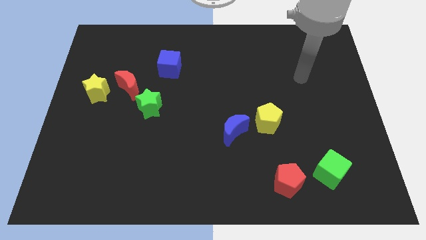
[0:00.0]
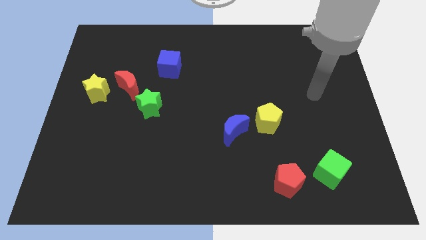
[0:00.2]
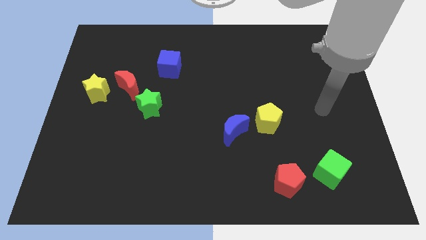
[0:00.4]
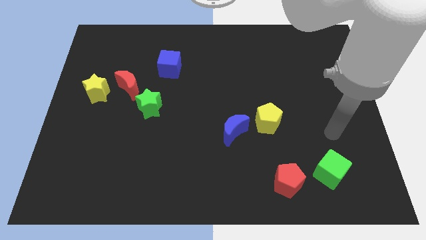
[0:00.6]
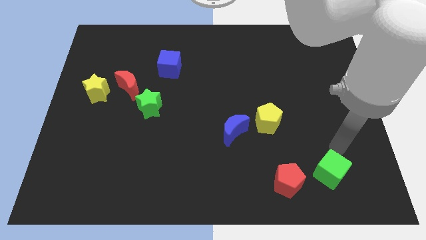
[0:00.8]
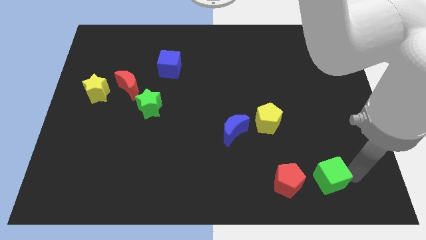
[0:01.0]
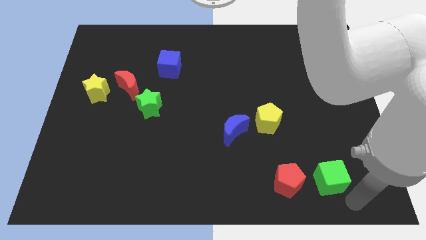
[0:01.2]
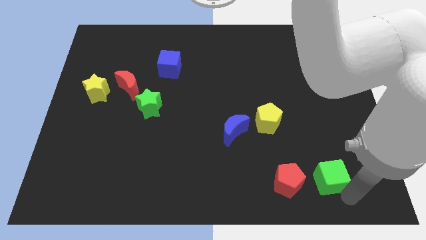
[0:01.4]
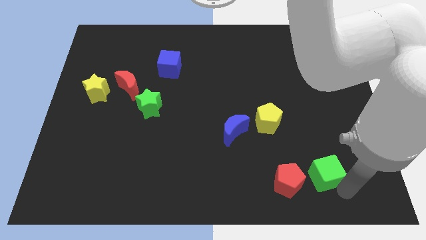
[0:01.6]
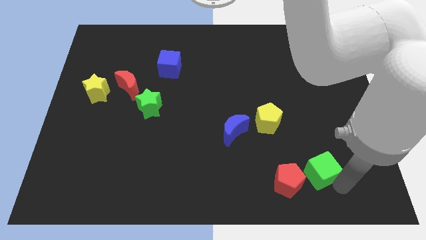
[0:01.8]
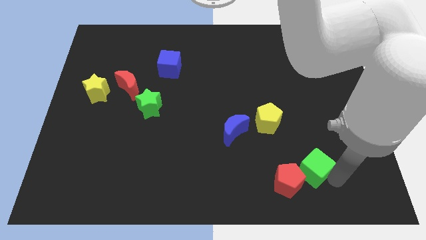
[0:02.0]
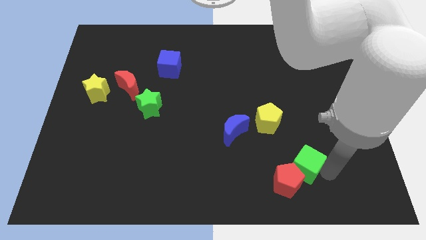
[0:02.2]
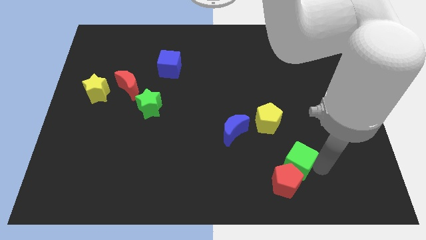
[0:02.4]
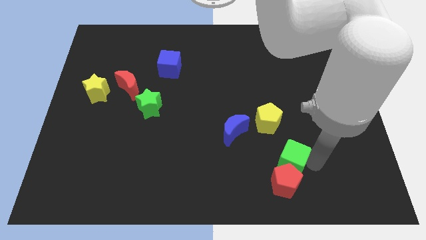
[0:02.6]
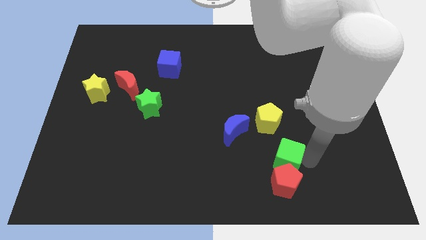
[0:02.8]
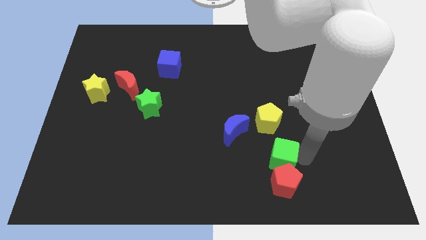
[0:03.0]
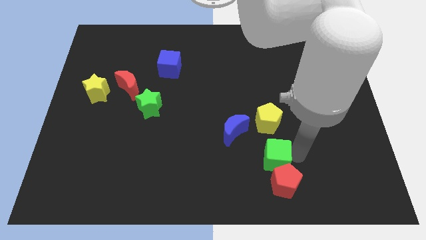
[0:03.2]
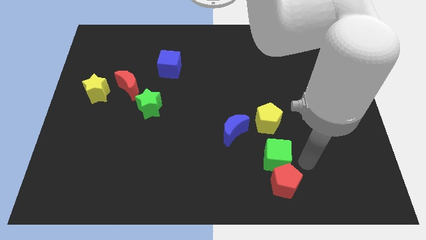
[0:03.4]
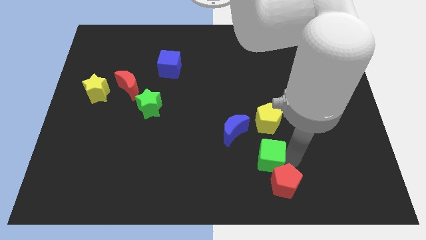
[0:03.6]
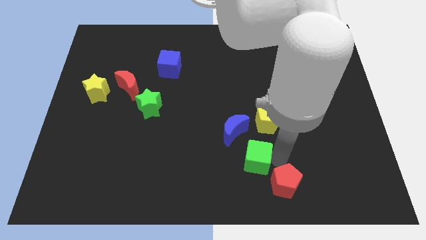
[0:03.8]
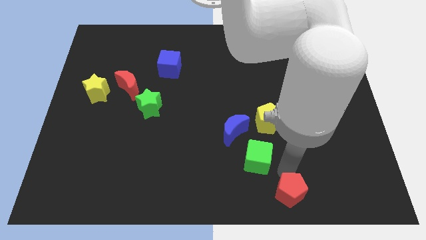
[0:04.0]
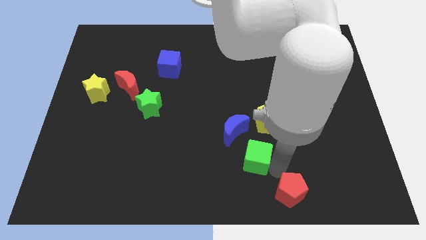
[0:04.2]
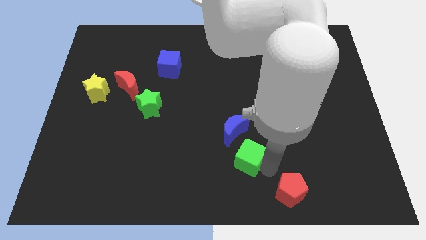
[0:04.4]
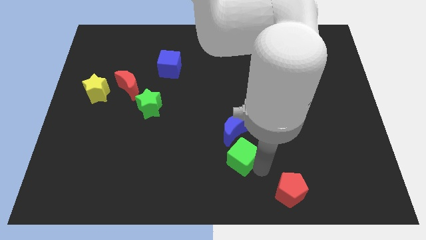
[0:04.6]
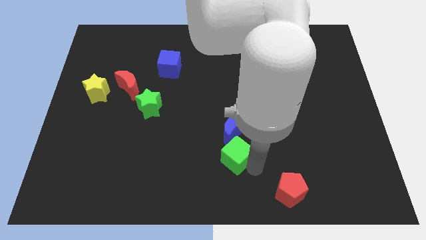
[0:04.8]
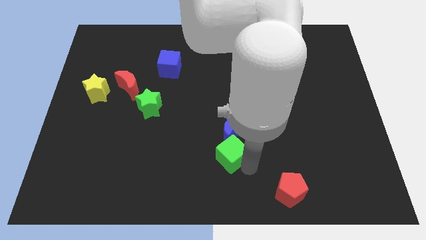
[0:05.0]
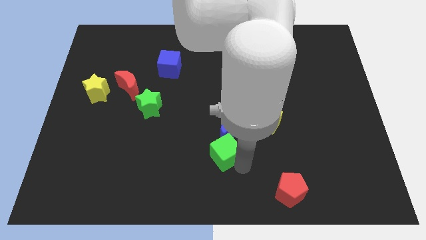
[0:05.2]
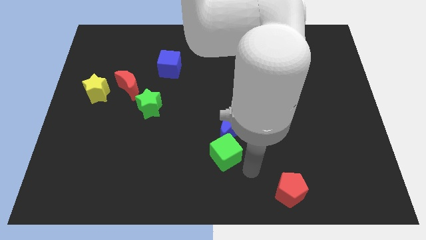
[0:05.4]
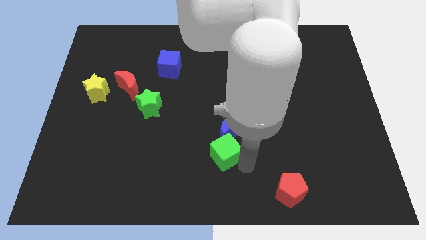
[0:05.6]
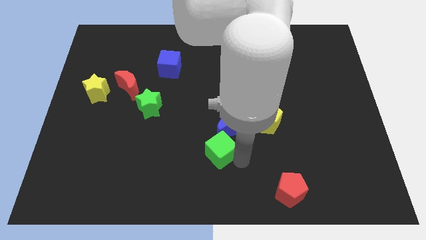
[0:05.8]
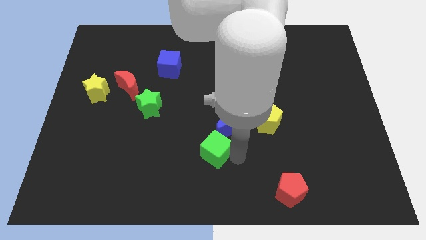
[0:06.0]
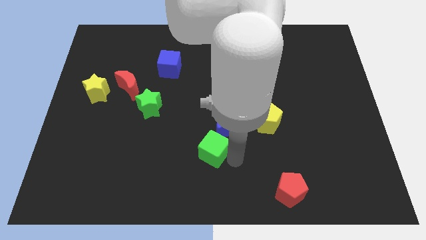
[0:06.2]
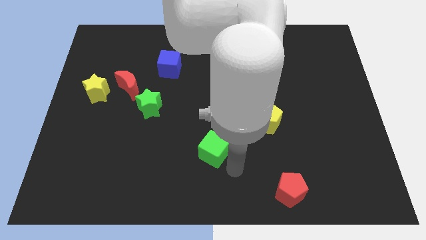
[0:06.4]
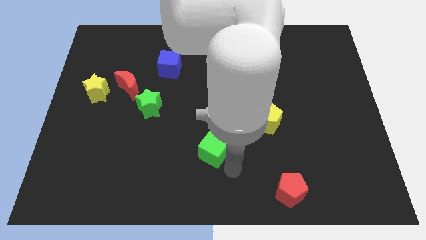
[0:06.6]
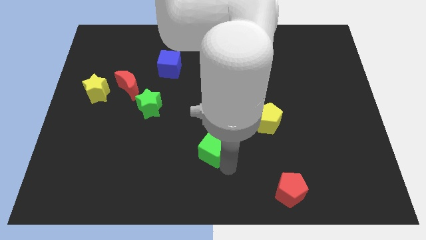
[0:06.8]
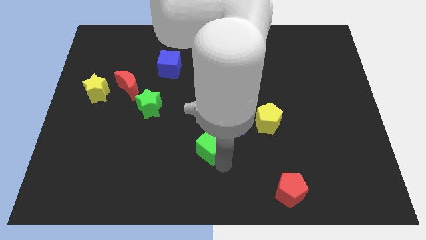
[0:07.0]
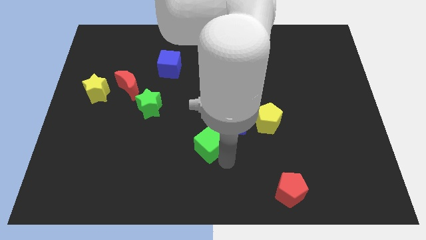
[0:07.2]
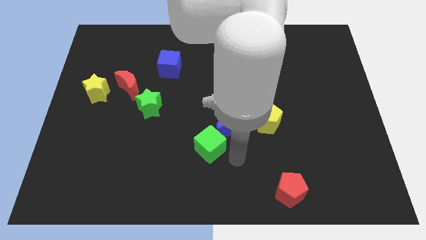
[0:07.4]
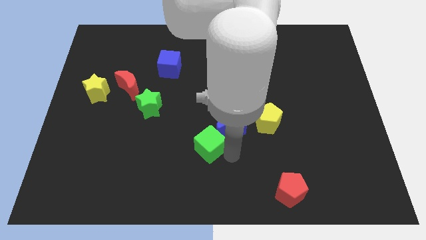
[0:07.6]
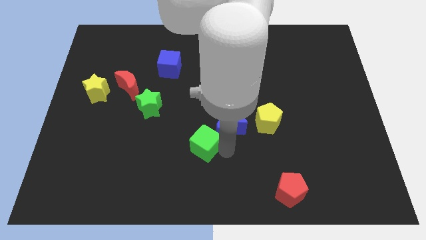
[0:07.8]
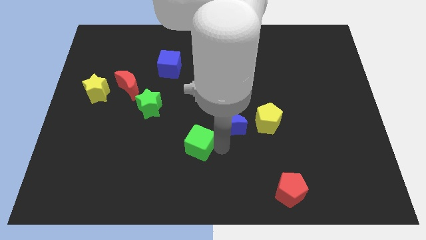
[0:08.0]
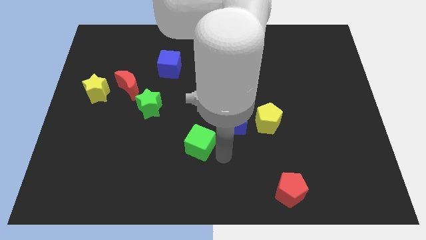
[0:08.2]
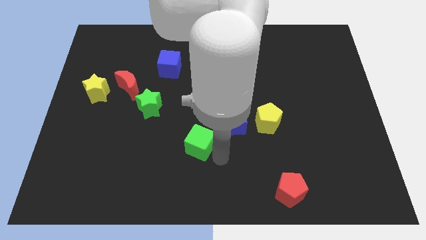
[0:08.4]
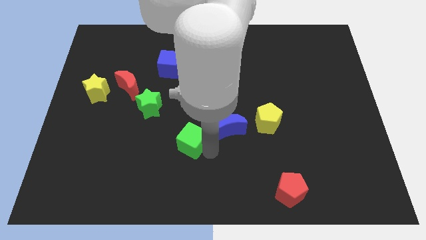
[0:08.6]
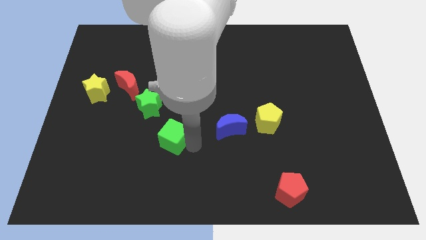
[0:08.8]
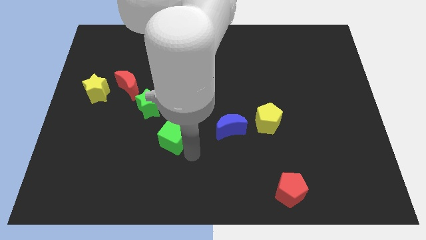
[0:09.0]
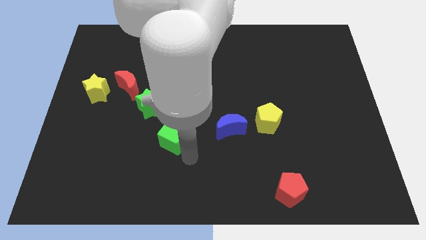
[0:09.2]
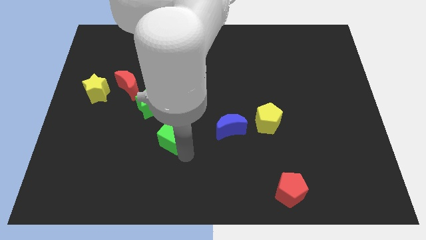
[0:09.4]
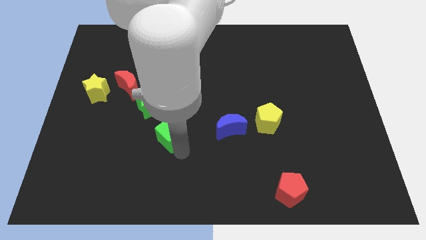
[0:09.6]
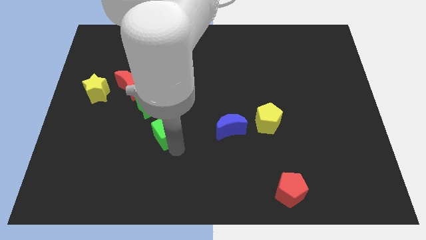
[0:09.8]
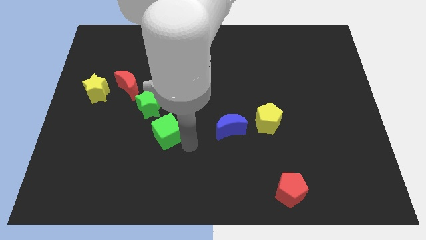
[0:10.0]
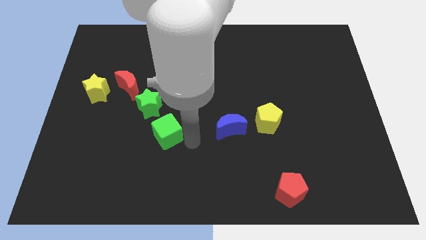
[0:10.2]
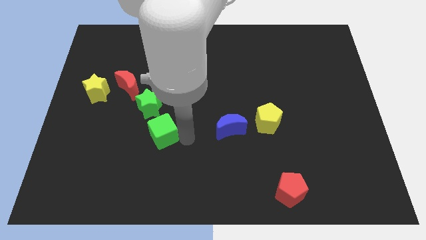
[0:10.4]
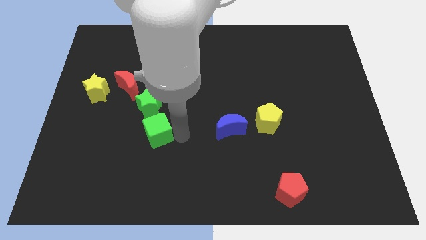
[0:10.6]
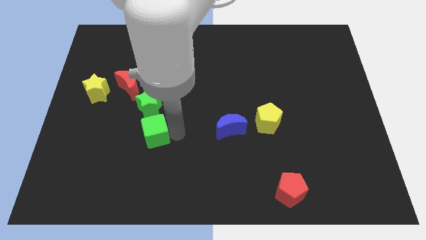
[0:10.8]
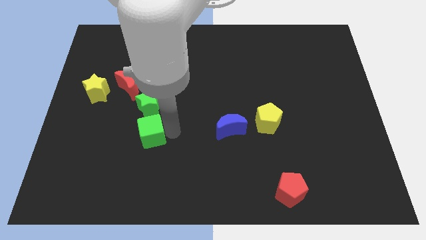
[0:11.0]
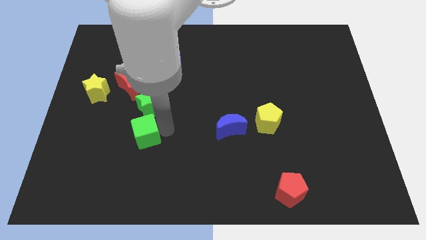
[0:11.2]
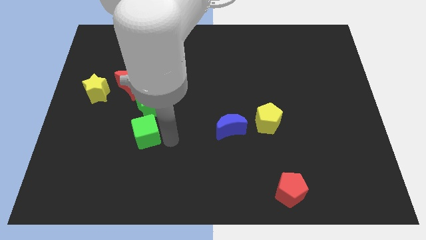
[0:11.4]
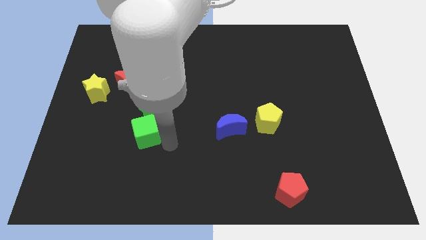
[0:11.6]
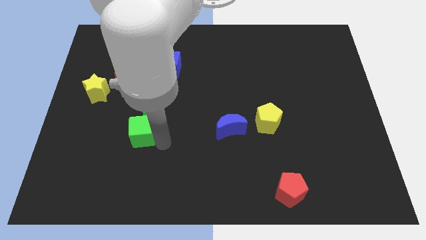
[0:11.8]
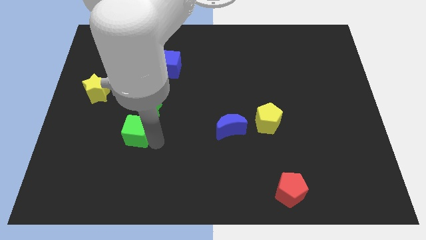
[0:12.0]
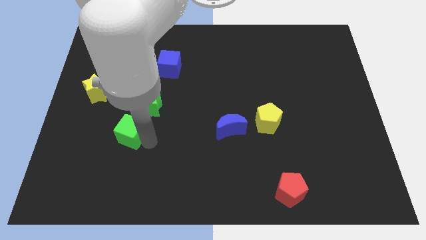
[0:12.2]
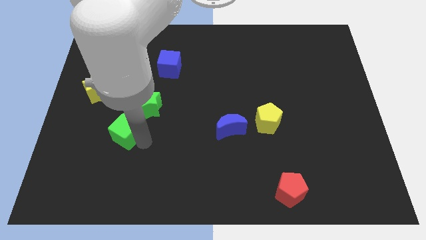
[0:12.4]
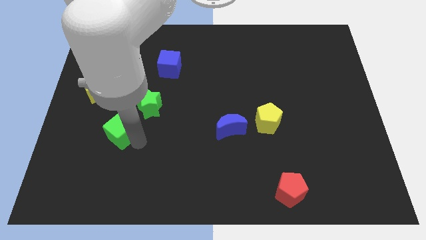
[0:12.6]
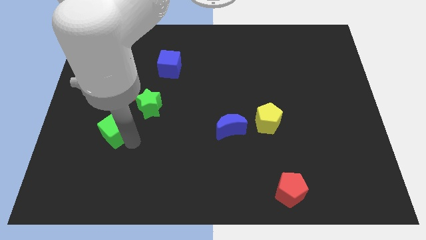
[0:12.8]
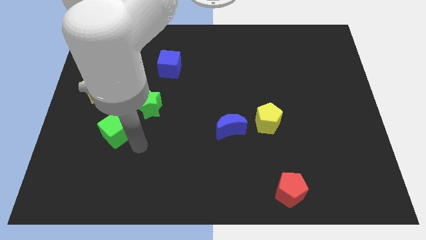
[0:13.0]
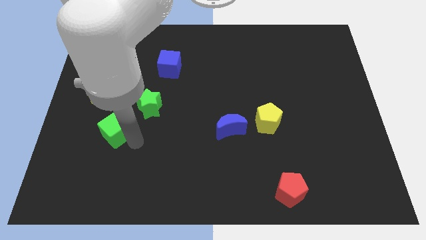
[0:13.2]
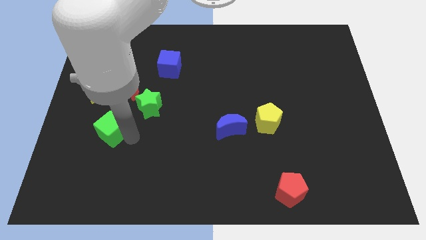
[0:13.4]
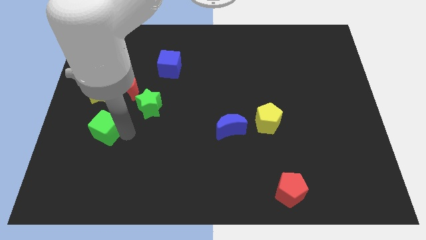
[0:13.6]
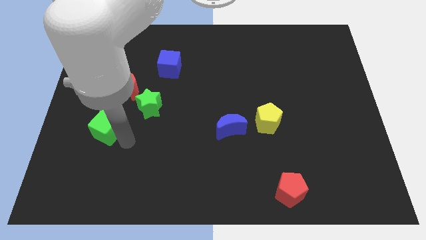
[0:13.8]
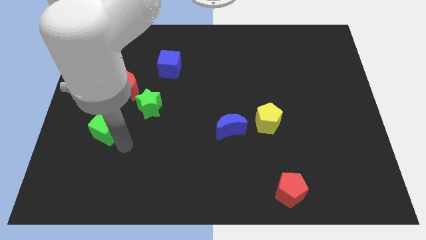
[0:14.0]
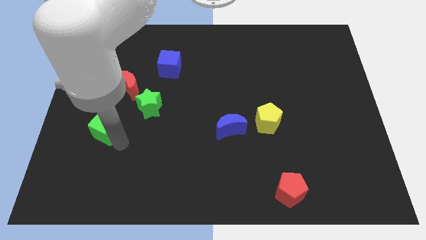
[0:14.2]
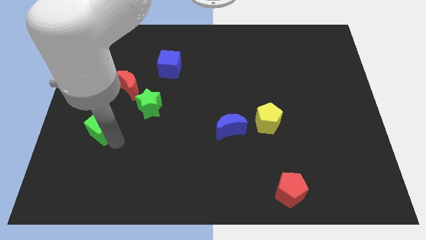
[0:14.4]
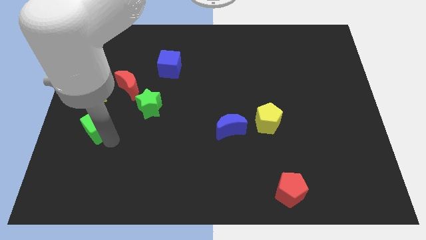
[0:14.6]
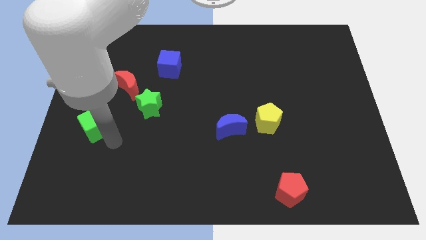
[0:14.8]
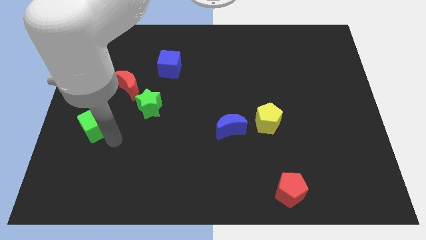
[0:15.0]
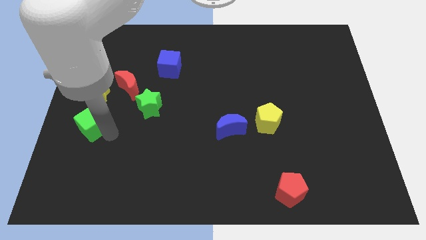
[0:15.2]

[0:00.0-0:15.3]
push the green cube to the center left
